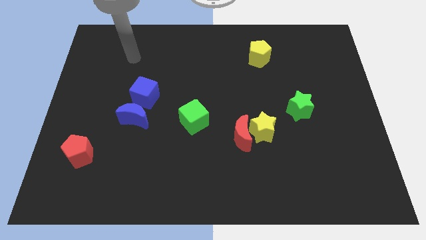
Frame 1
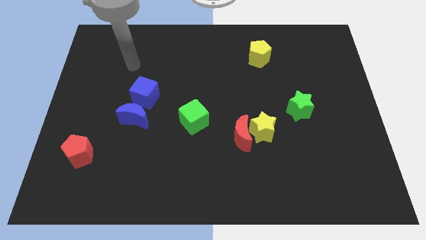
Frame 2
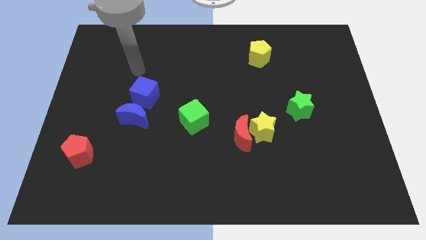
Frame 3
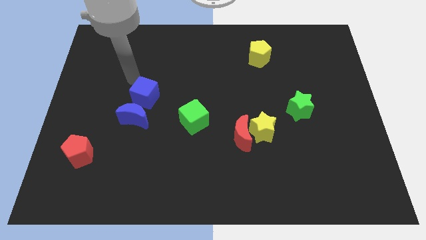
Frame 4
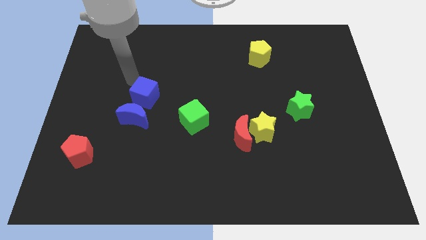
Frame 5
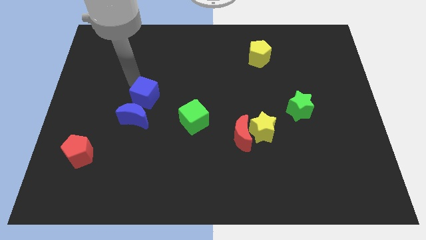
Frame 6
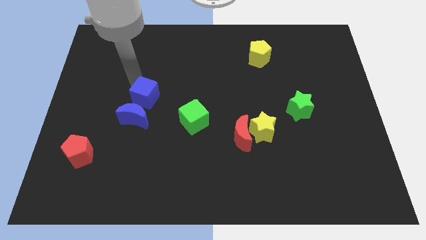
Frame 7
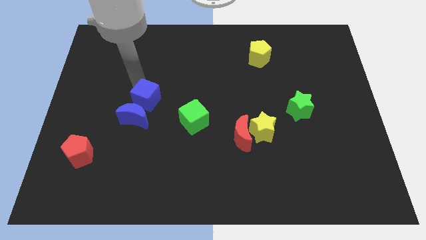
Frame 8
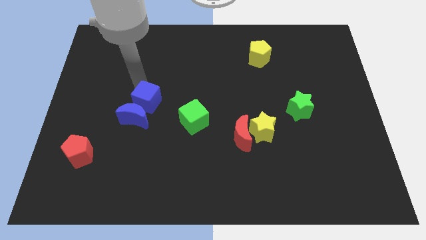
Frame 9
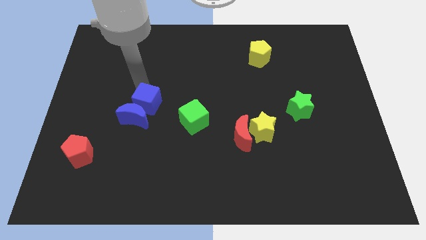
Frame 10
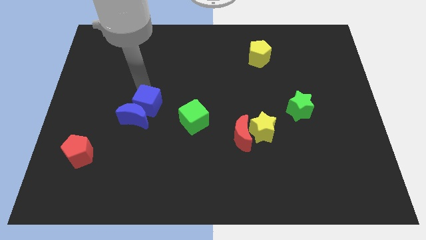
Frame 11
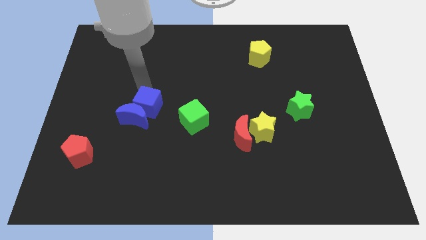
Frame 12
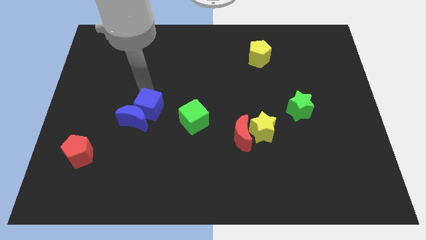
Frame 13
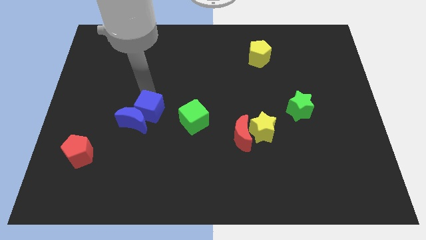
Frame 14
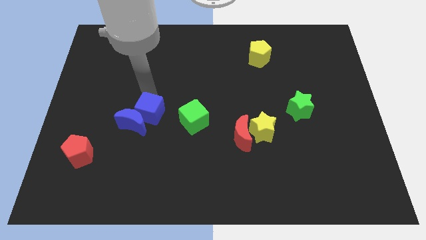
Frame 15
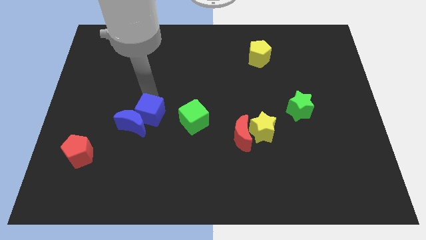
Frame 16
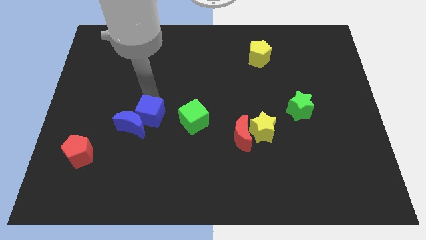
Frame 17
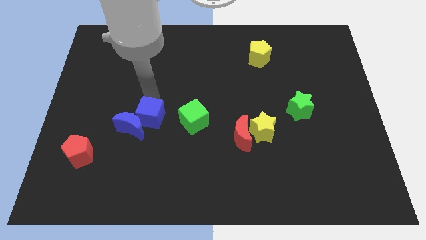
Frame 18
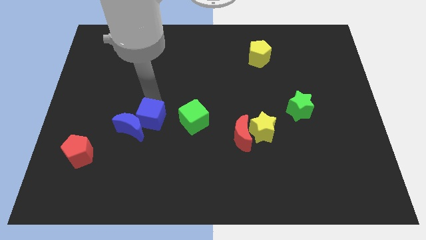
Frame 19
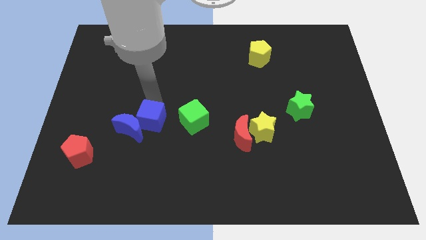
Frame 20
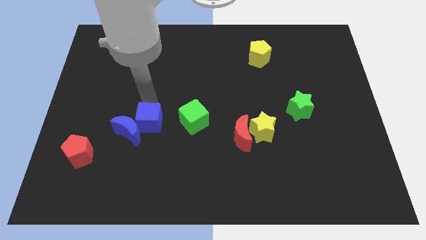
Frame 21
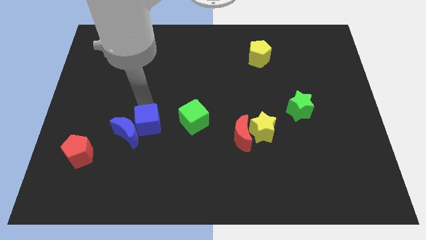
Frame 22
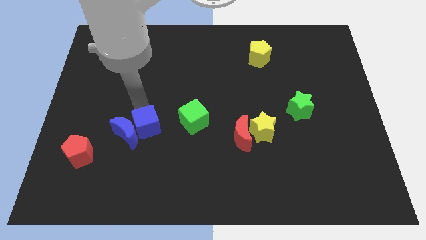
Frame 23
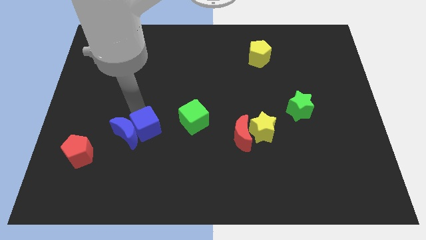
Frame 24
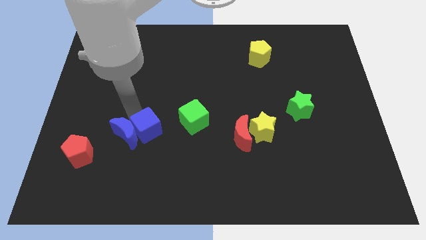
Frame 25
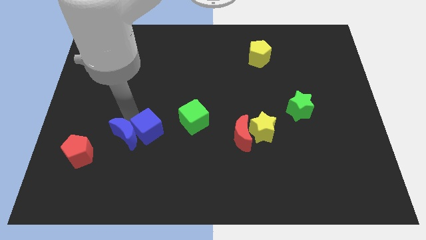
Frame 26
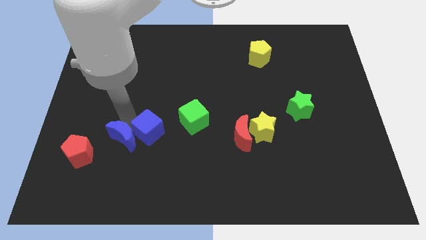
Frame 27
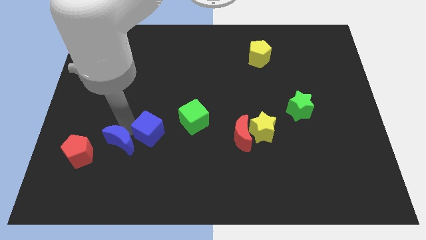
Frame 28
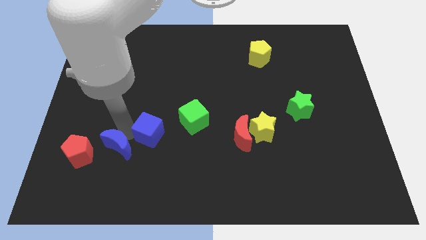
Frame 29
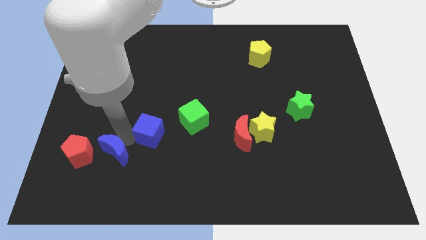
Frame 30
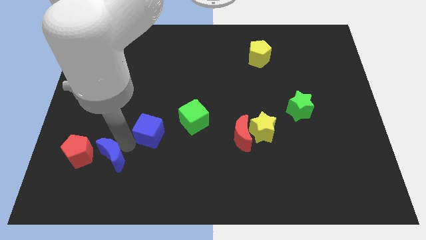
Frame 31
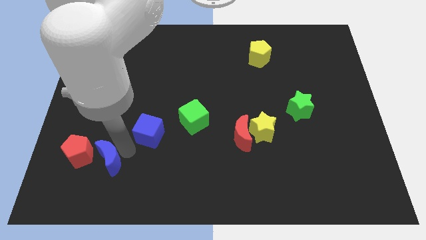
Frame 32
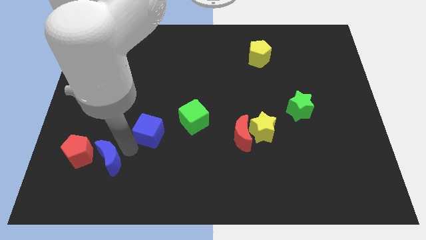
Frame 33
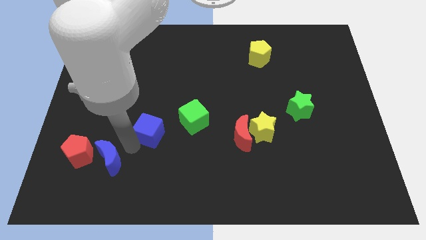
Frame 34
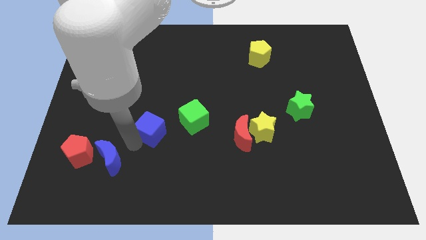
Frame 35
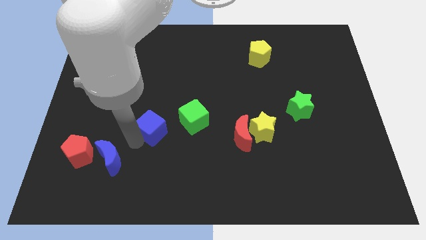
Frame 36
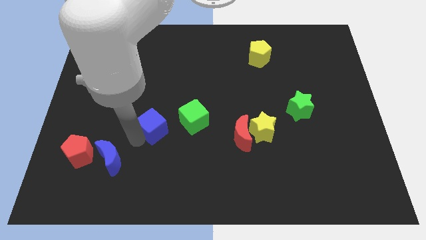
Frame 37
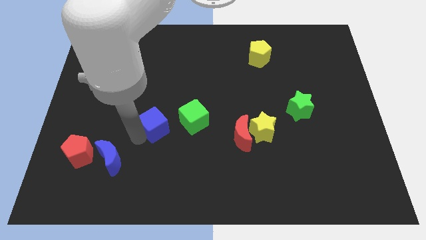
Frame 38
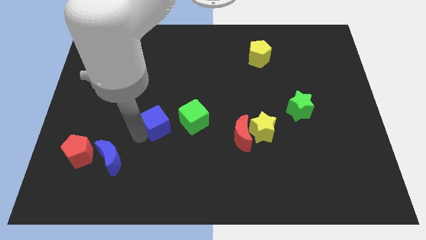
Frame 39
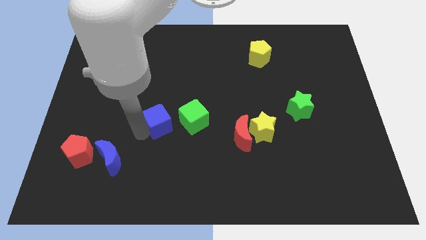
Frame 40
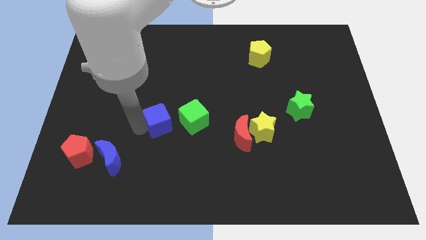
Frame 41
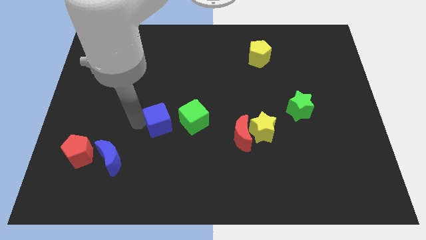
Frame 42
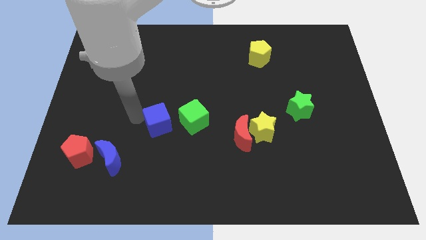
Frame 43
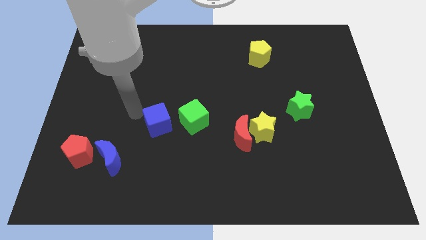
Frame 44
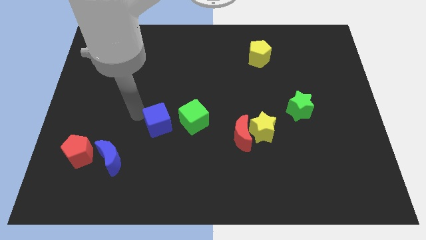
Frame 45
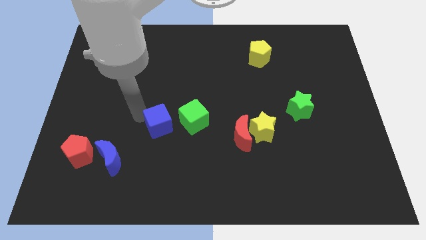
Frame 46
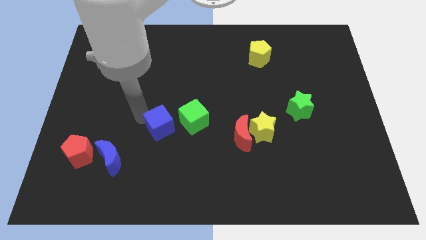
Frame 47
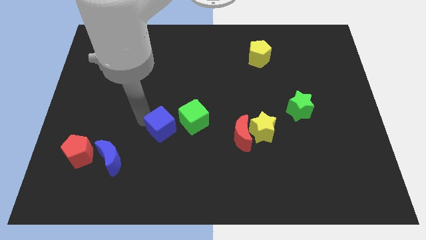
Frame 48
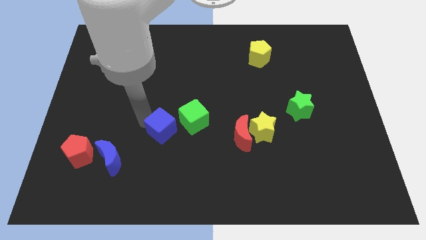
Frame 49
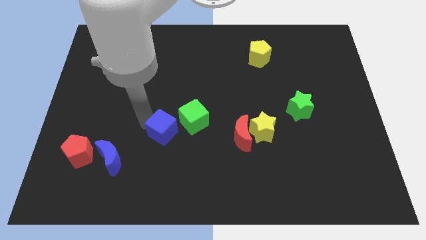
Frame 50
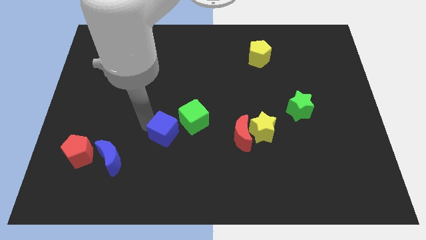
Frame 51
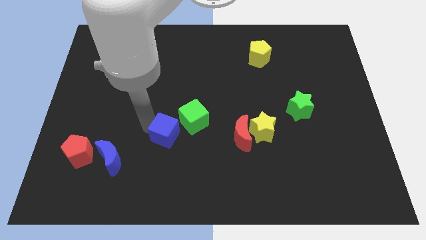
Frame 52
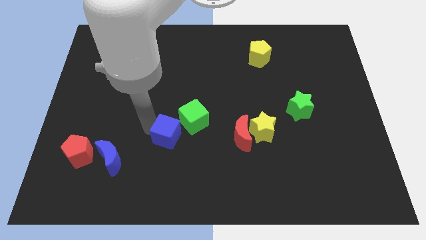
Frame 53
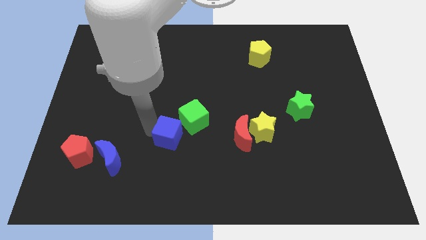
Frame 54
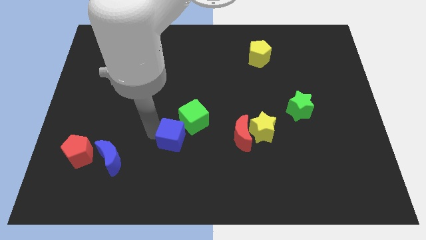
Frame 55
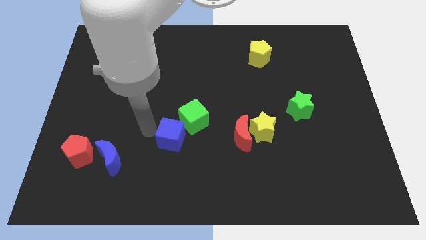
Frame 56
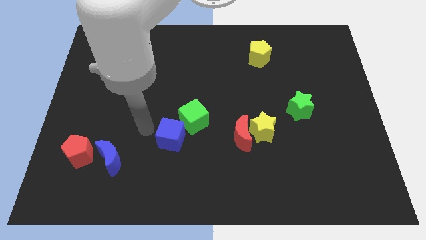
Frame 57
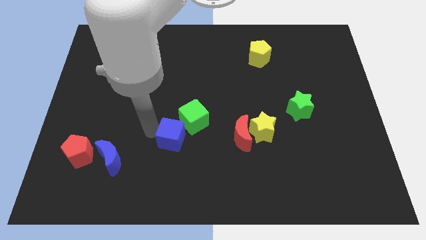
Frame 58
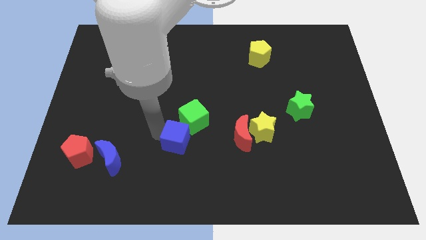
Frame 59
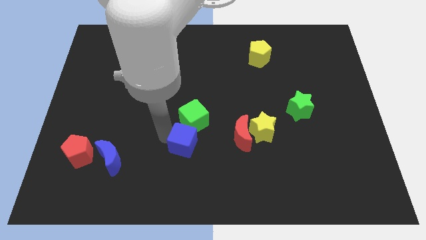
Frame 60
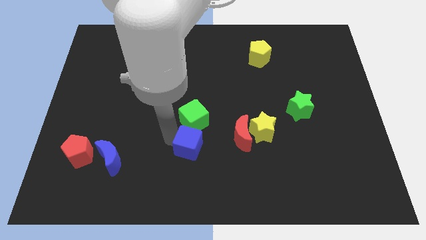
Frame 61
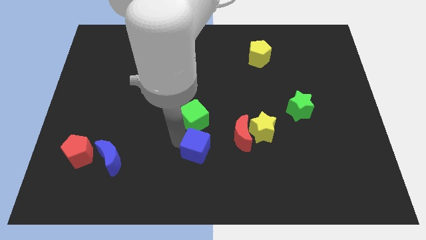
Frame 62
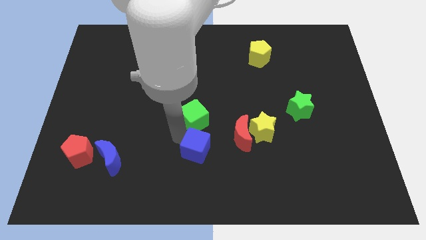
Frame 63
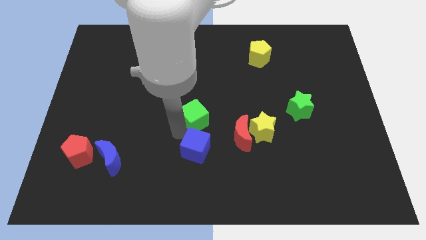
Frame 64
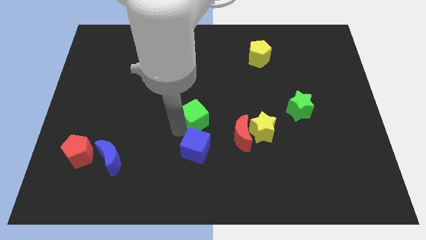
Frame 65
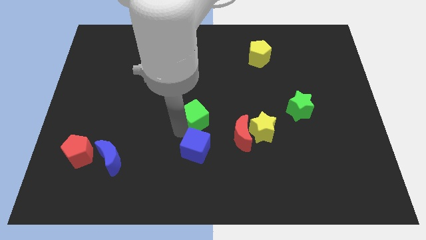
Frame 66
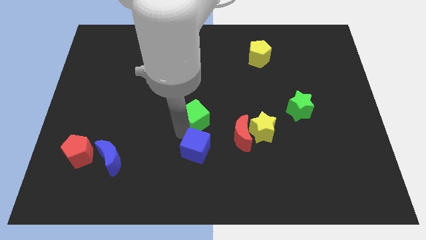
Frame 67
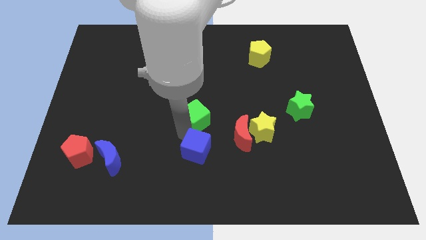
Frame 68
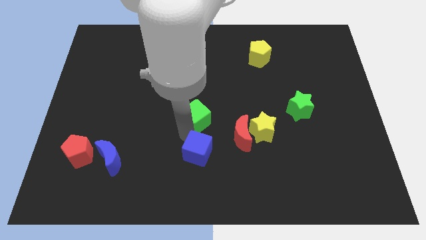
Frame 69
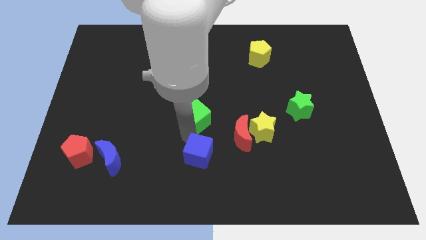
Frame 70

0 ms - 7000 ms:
put the blue cube to the bottom
